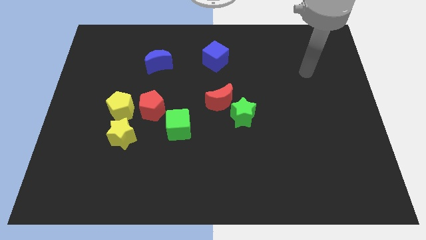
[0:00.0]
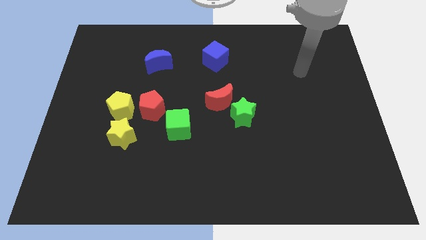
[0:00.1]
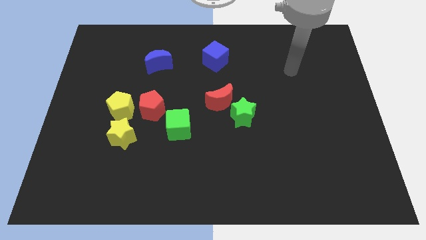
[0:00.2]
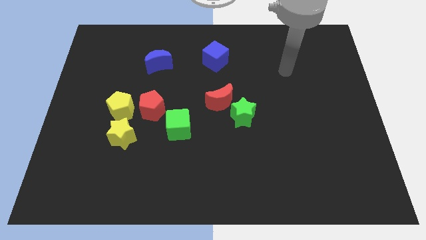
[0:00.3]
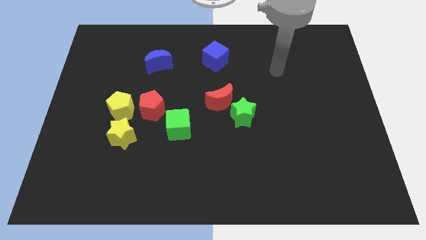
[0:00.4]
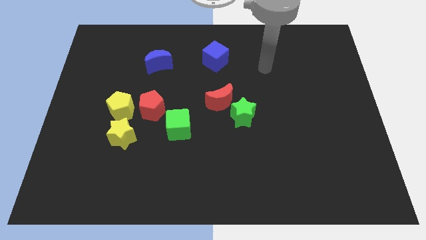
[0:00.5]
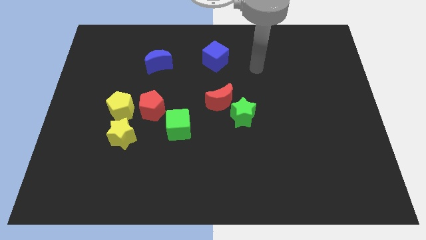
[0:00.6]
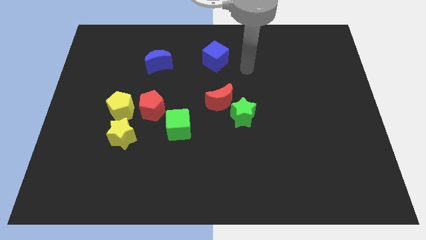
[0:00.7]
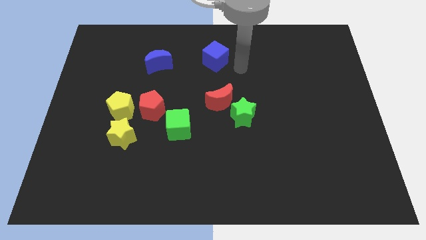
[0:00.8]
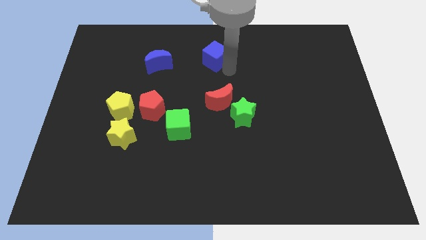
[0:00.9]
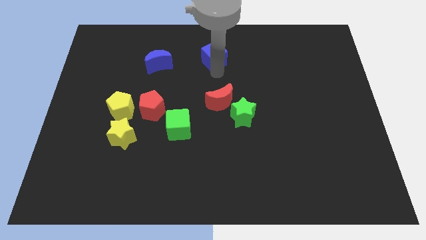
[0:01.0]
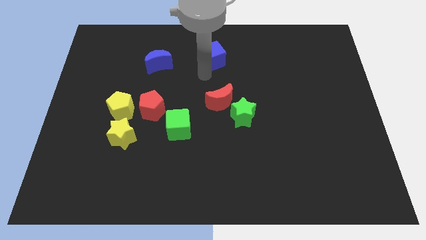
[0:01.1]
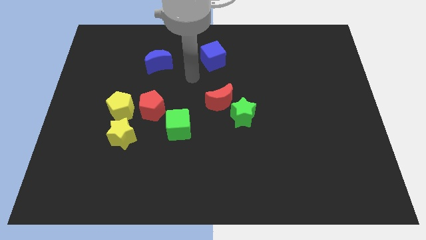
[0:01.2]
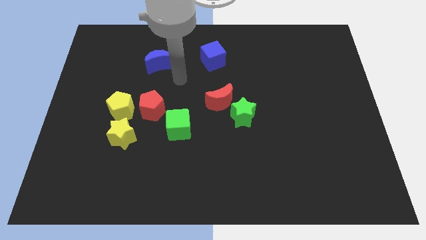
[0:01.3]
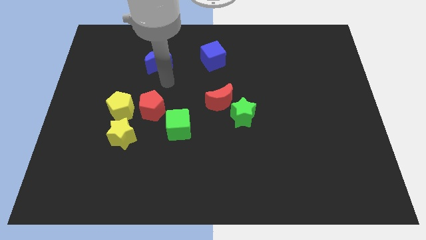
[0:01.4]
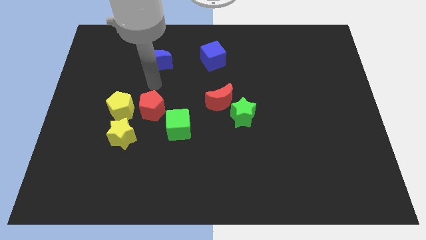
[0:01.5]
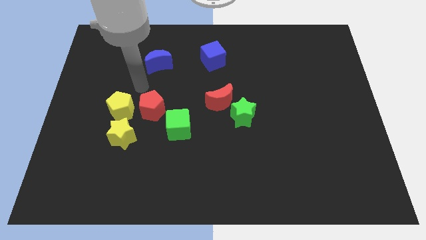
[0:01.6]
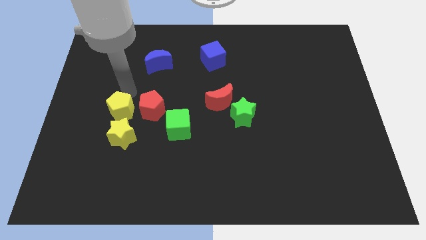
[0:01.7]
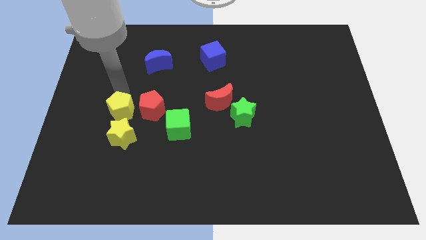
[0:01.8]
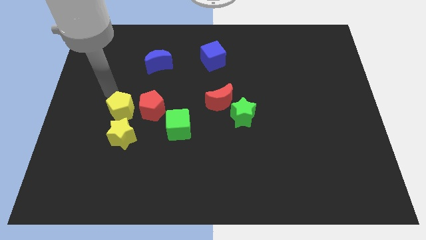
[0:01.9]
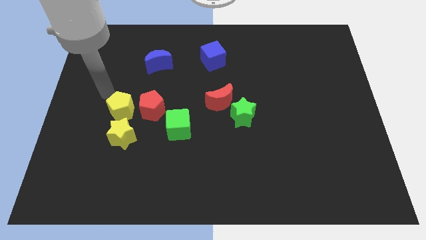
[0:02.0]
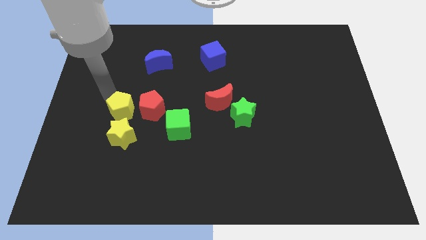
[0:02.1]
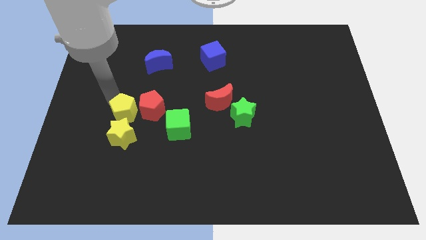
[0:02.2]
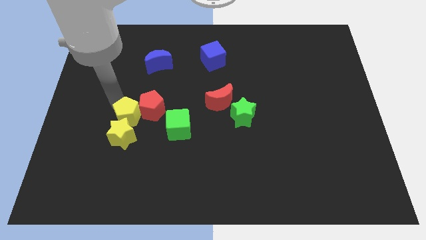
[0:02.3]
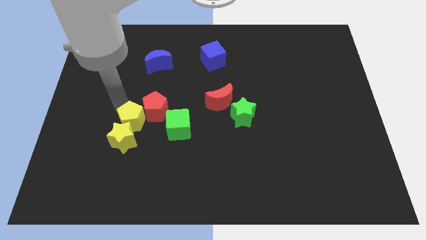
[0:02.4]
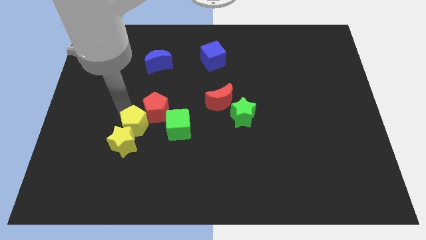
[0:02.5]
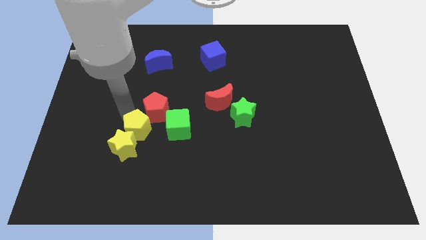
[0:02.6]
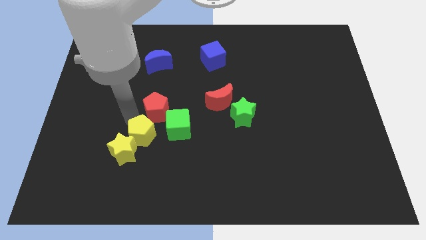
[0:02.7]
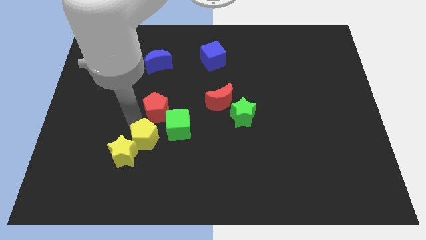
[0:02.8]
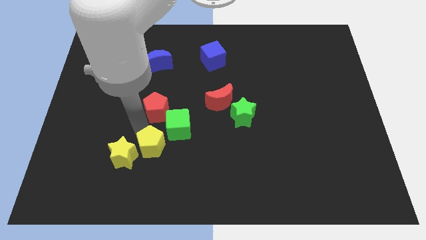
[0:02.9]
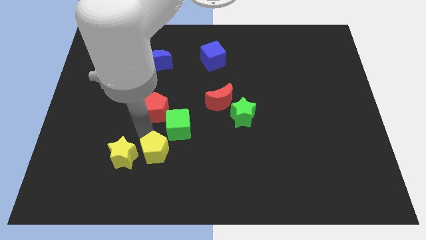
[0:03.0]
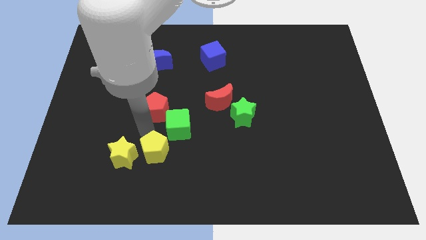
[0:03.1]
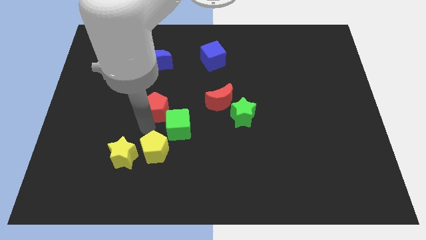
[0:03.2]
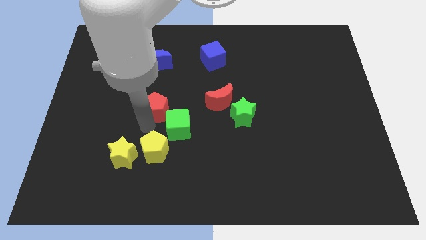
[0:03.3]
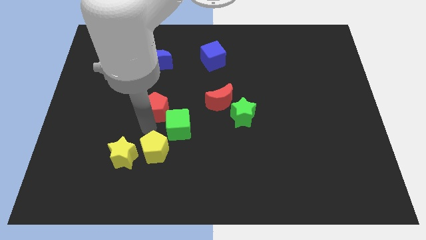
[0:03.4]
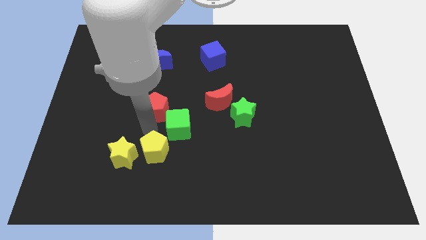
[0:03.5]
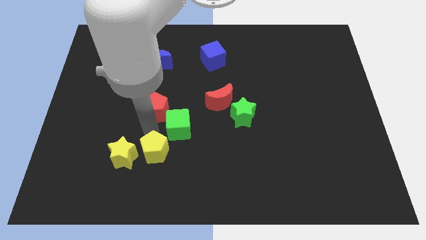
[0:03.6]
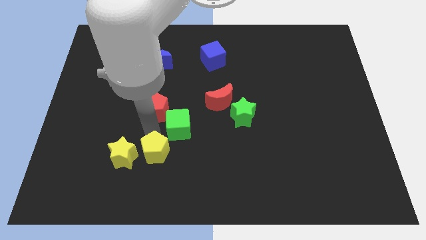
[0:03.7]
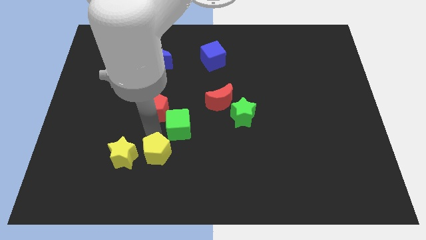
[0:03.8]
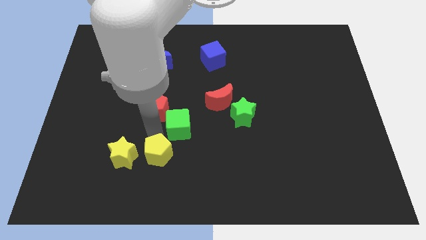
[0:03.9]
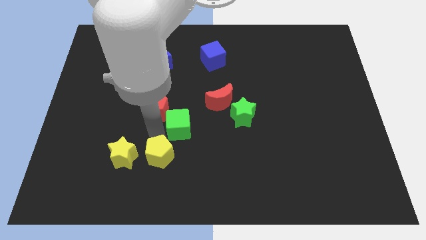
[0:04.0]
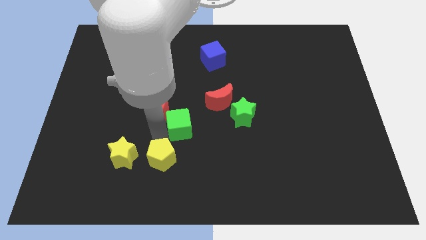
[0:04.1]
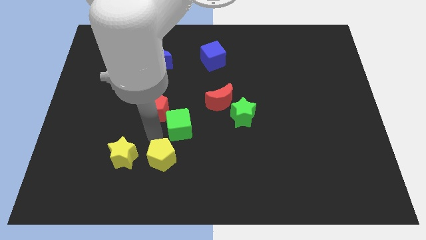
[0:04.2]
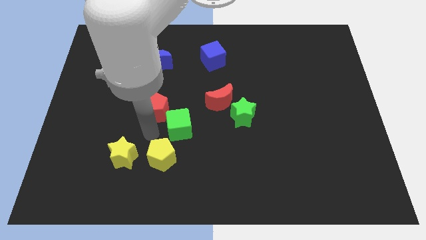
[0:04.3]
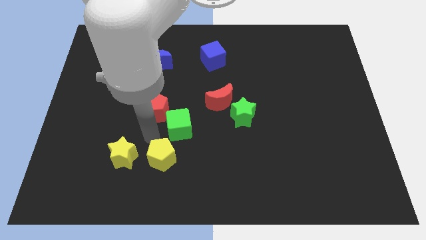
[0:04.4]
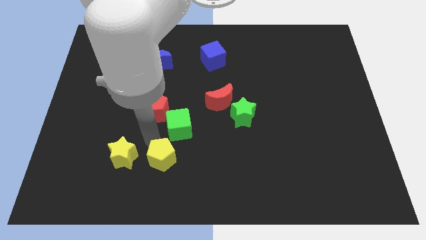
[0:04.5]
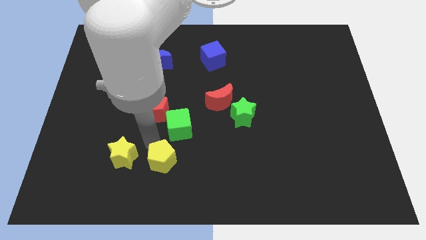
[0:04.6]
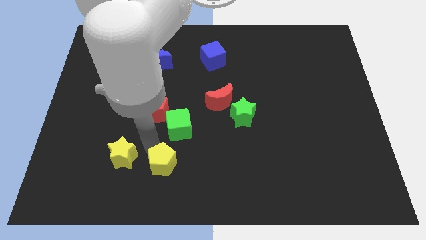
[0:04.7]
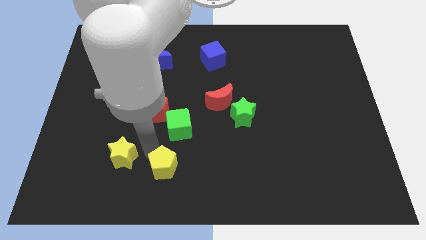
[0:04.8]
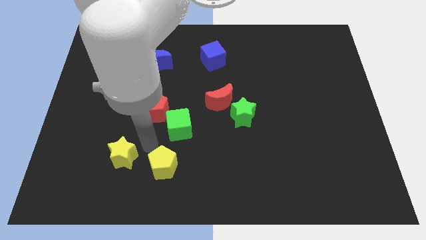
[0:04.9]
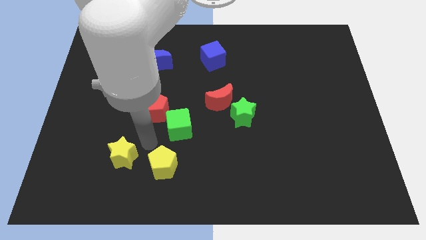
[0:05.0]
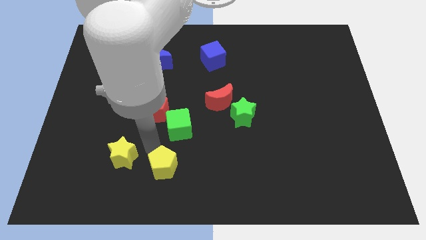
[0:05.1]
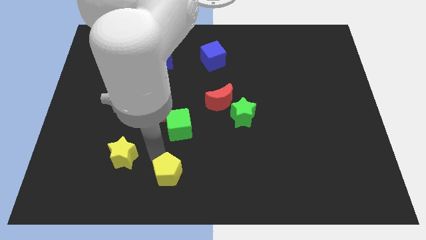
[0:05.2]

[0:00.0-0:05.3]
put the yellow pentagon to the bottom side

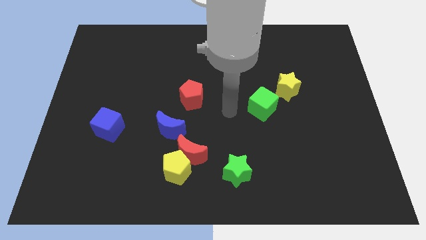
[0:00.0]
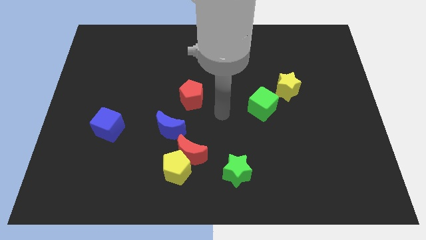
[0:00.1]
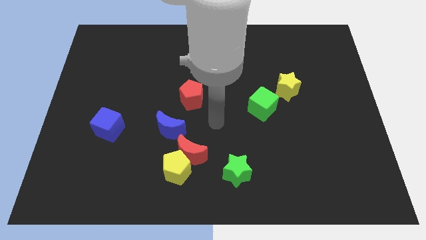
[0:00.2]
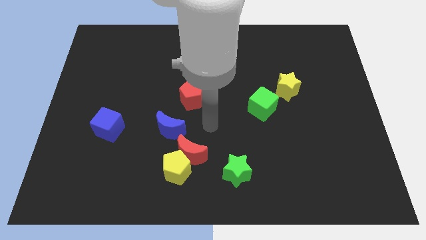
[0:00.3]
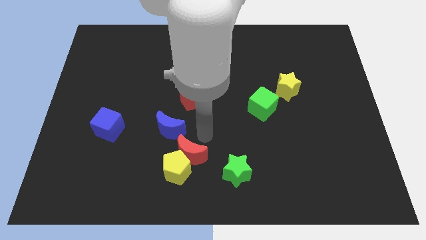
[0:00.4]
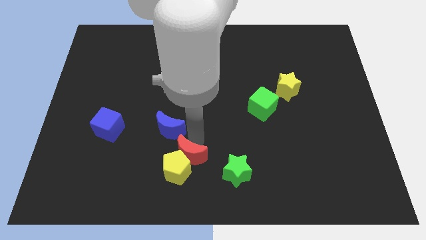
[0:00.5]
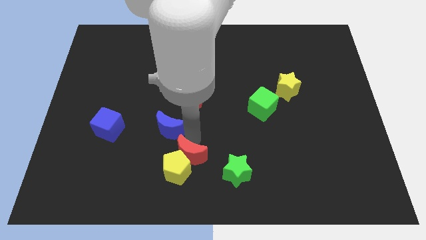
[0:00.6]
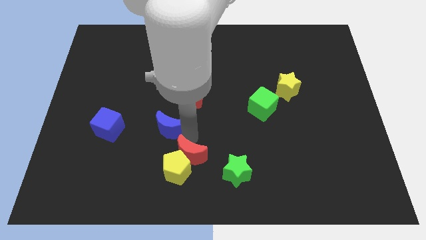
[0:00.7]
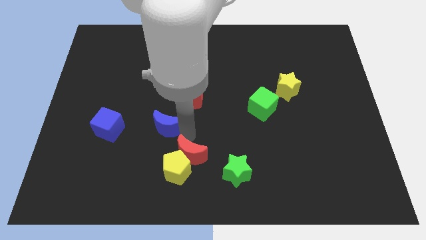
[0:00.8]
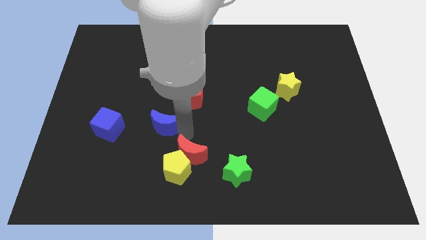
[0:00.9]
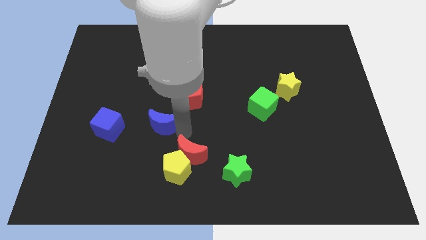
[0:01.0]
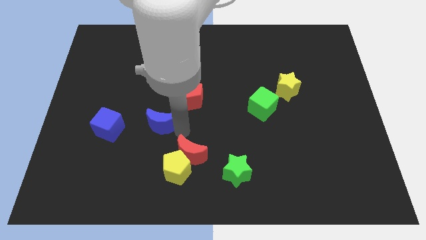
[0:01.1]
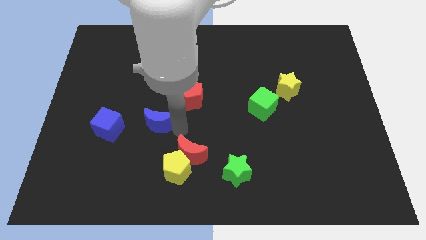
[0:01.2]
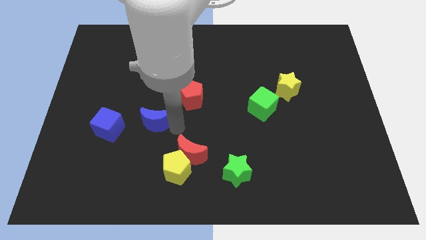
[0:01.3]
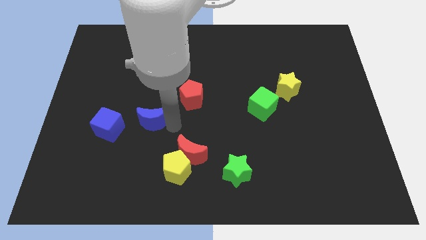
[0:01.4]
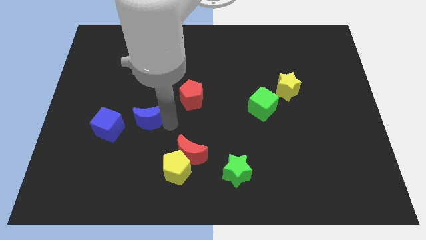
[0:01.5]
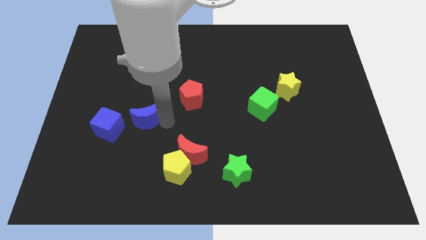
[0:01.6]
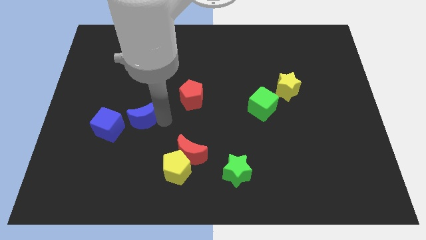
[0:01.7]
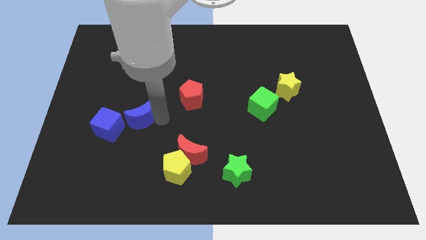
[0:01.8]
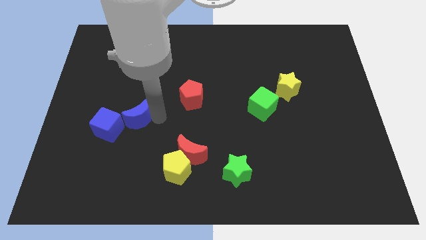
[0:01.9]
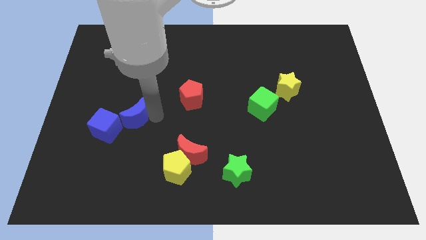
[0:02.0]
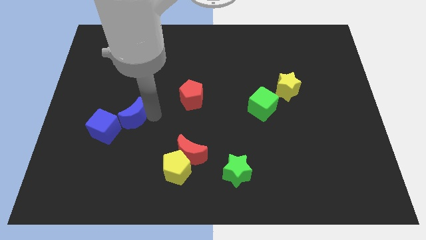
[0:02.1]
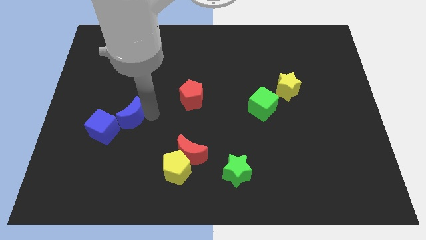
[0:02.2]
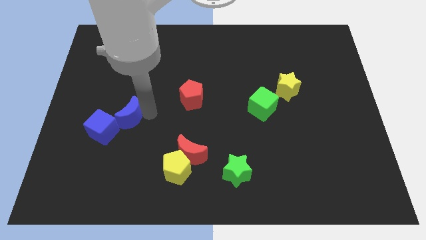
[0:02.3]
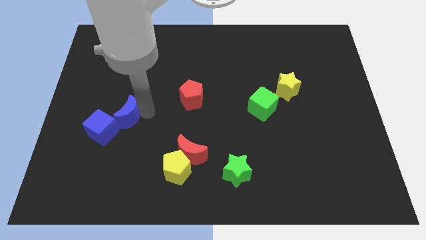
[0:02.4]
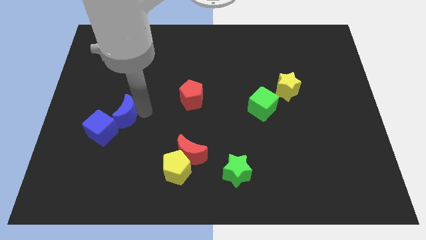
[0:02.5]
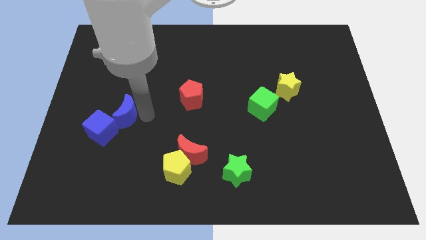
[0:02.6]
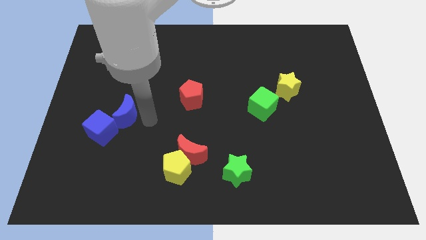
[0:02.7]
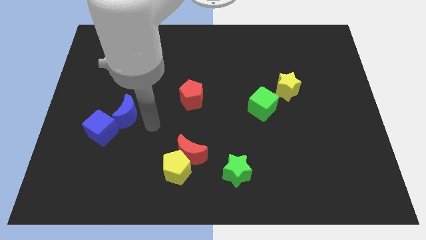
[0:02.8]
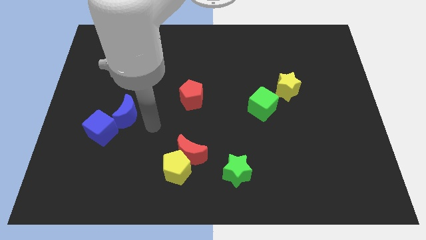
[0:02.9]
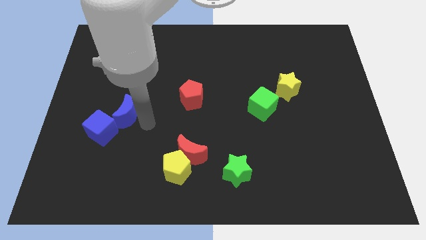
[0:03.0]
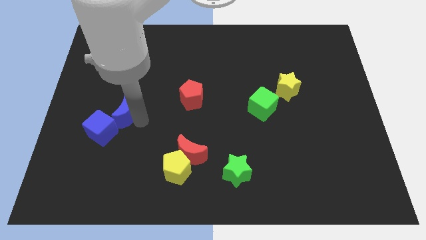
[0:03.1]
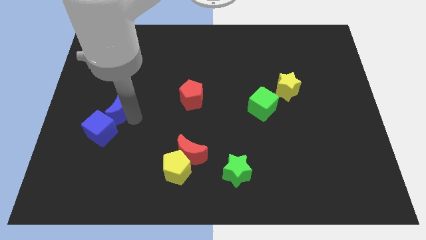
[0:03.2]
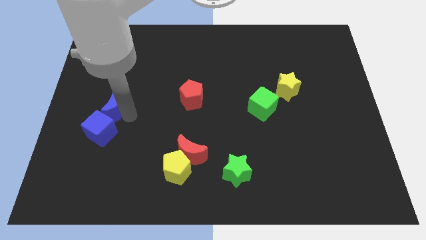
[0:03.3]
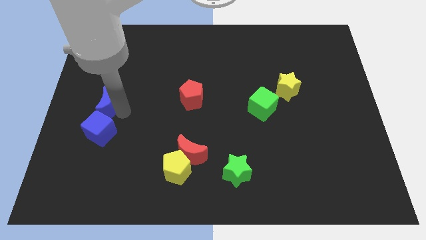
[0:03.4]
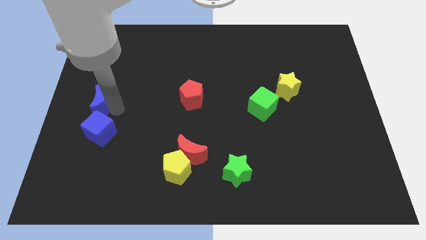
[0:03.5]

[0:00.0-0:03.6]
move the blue moon to the center left
